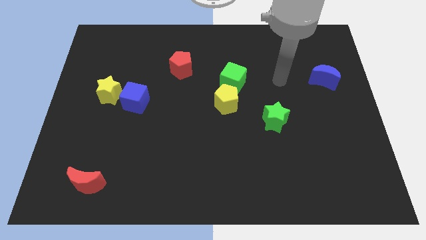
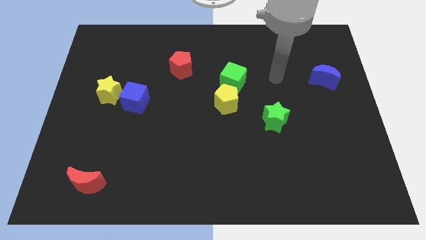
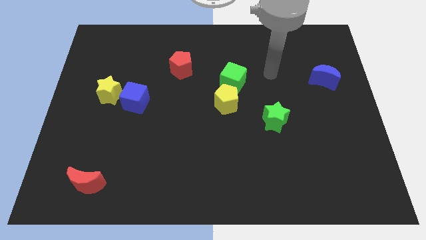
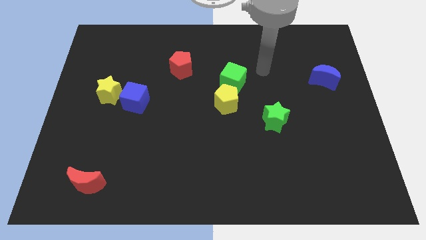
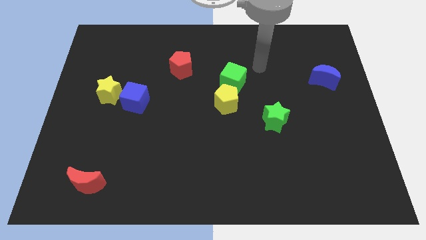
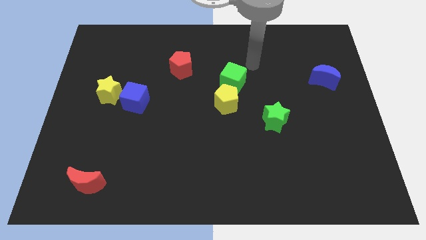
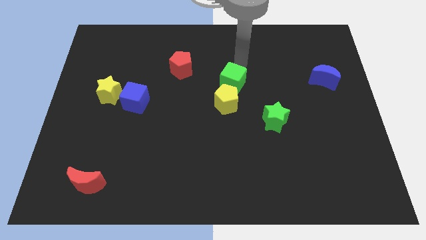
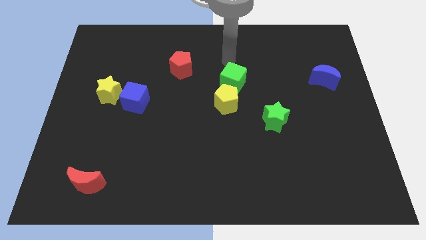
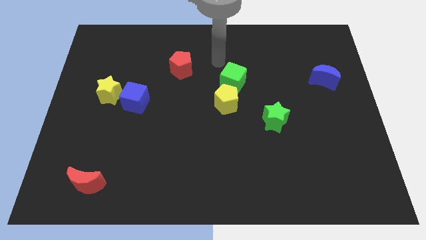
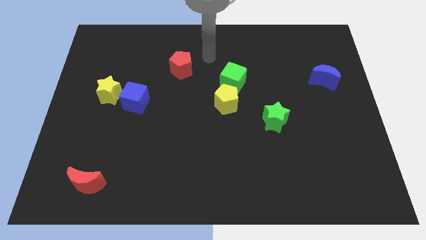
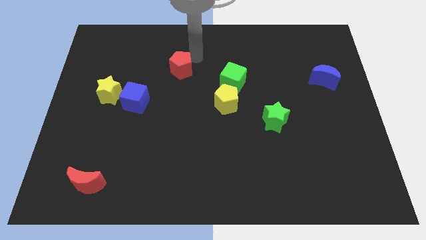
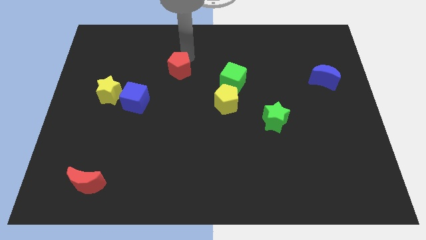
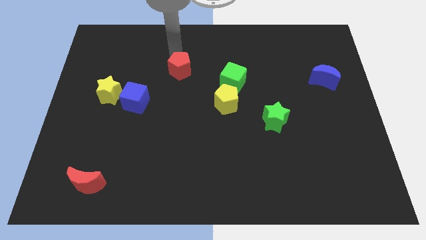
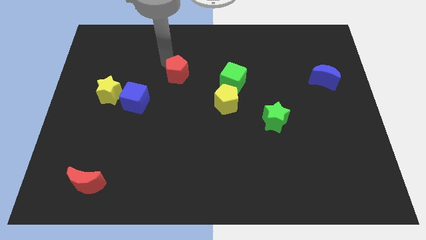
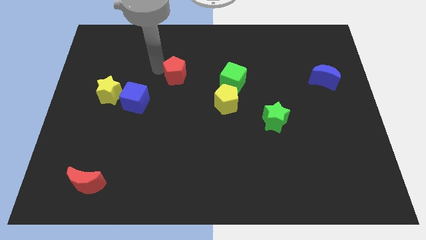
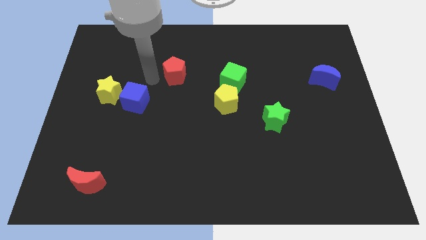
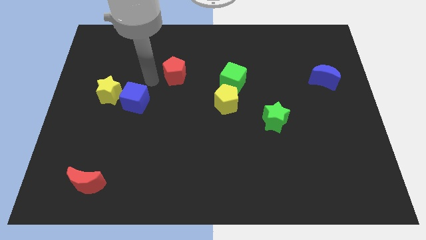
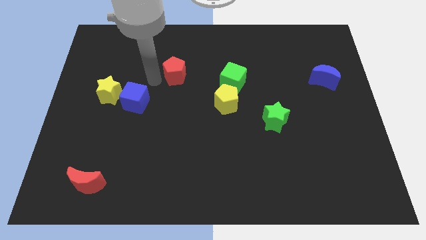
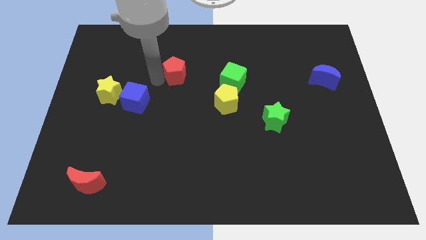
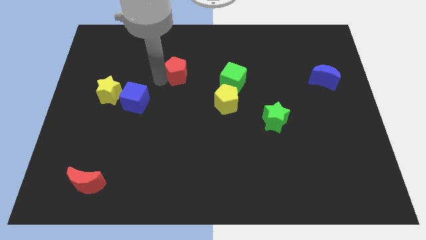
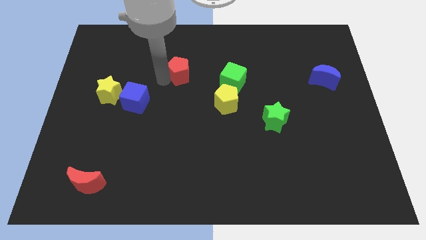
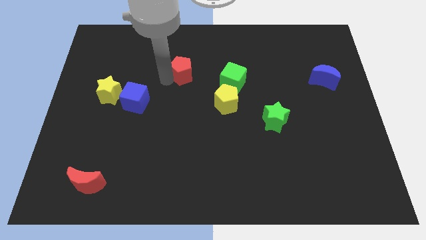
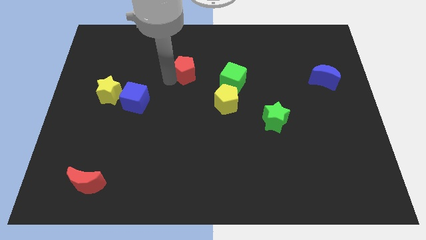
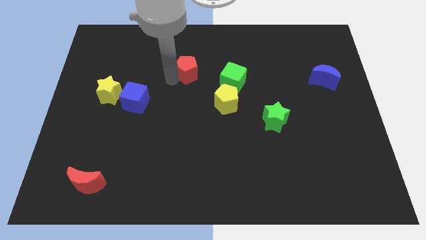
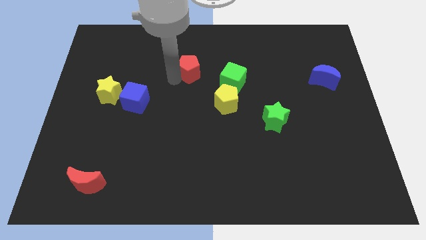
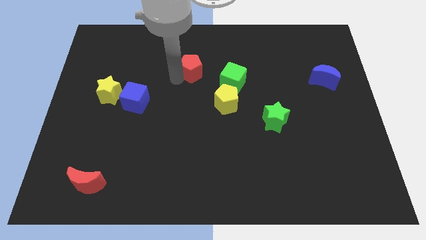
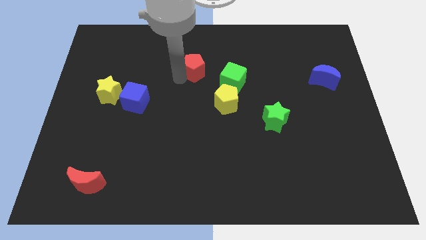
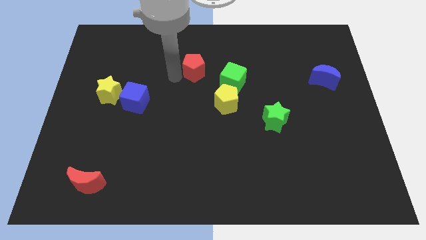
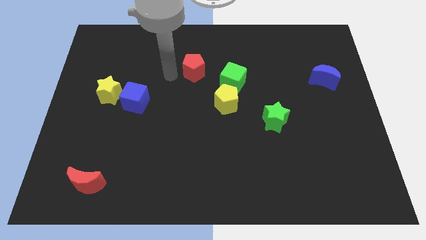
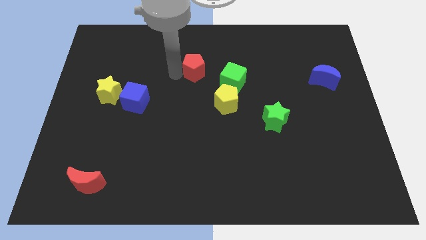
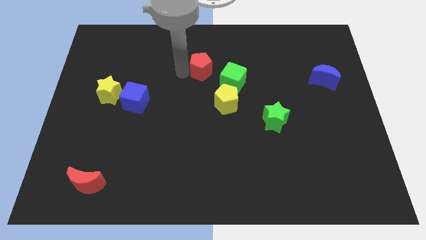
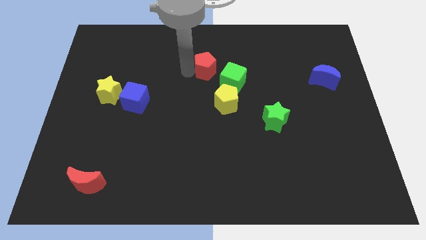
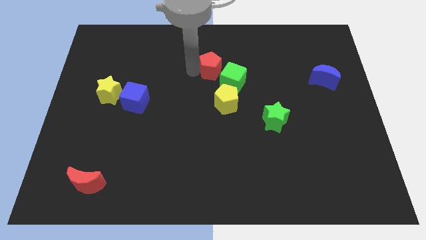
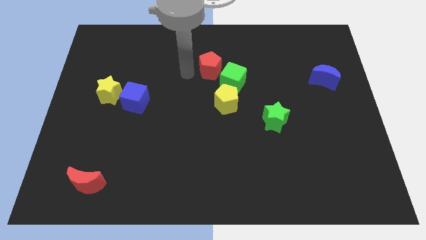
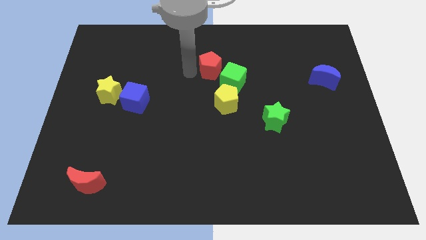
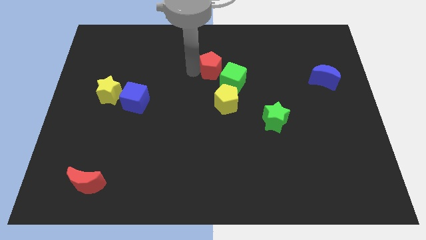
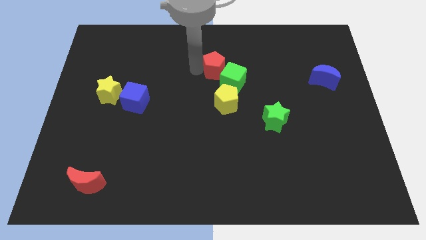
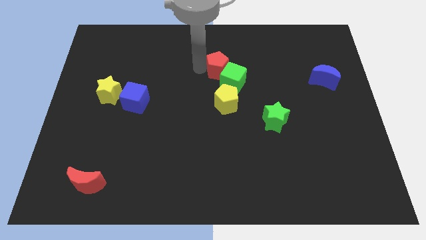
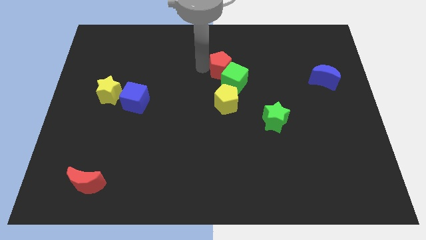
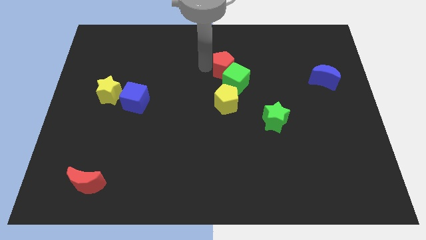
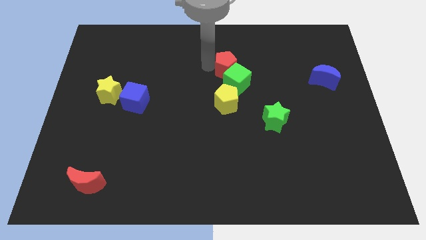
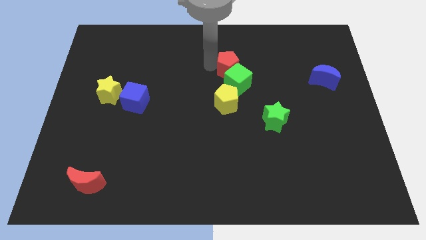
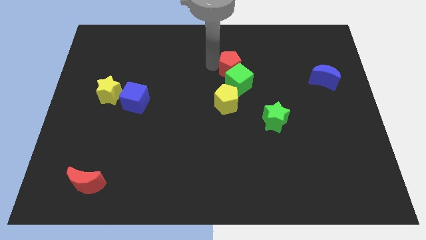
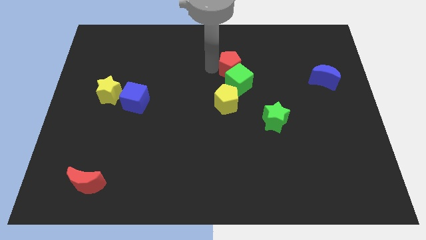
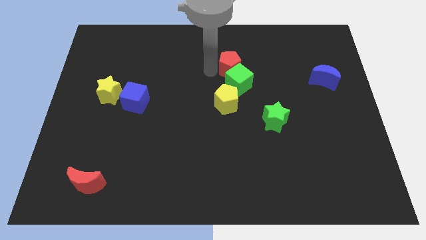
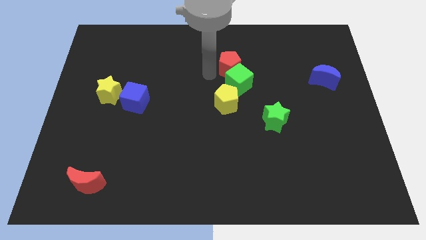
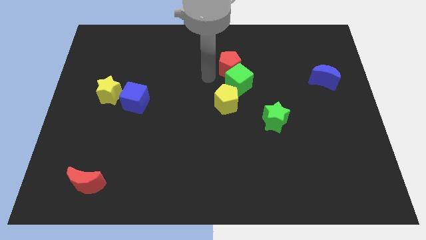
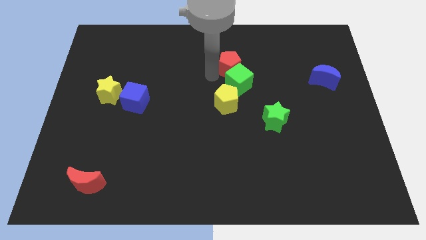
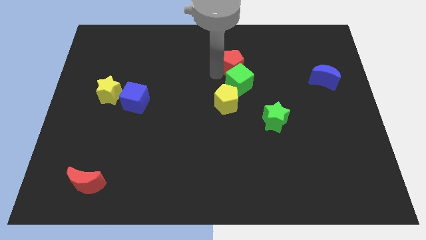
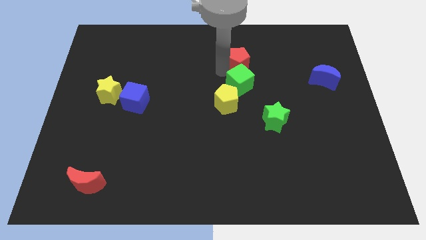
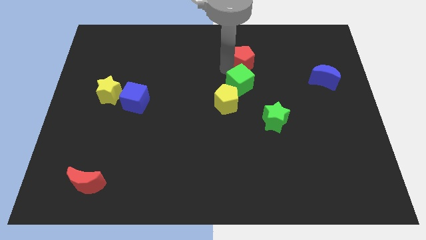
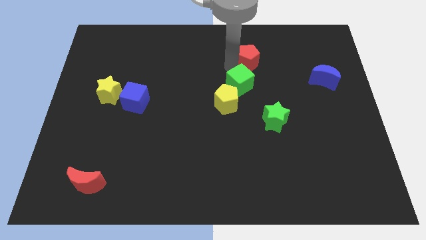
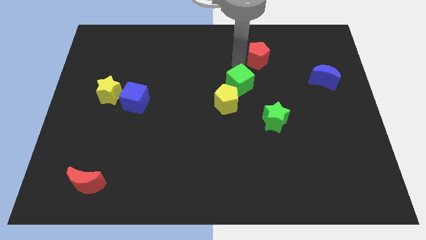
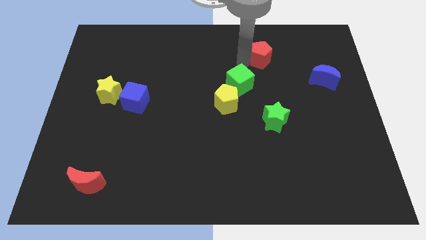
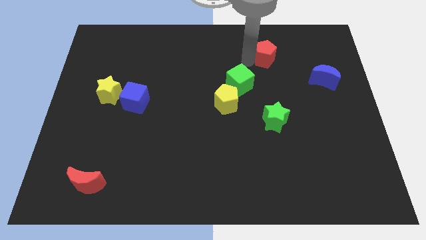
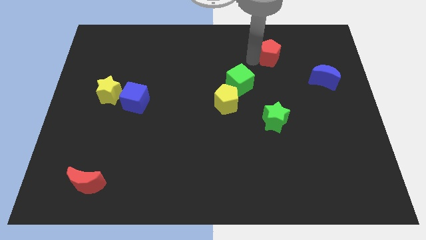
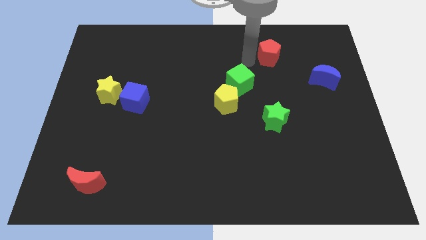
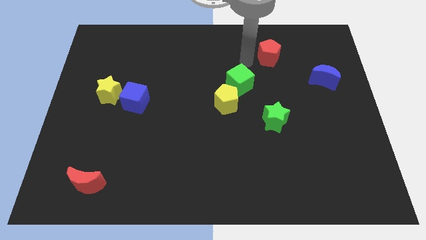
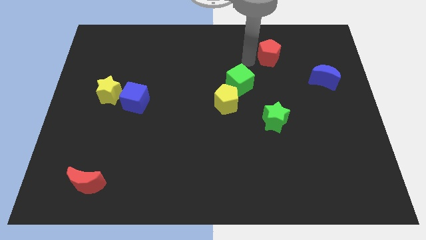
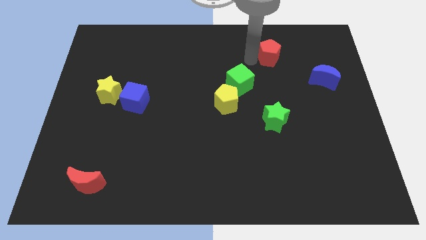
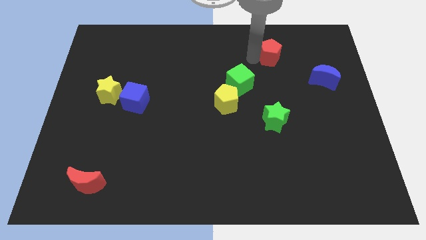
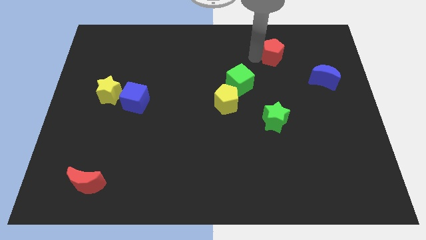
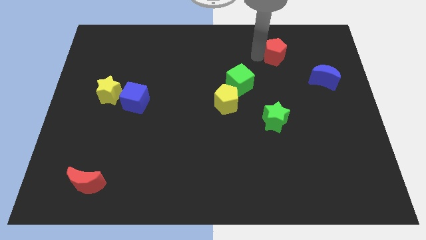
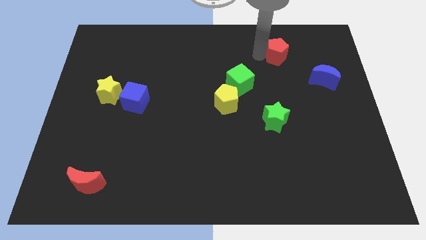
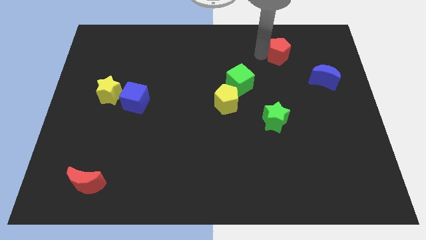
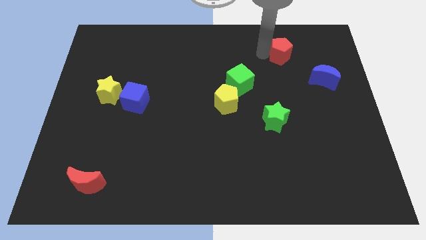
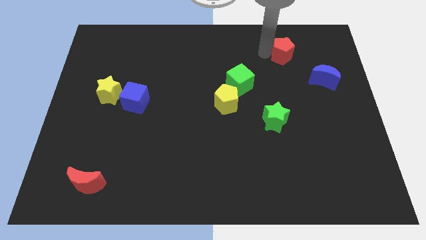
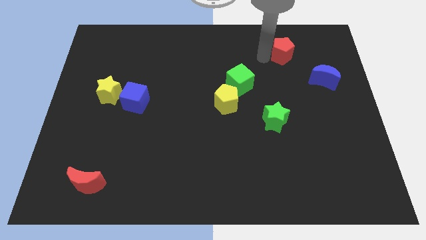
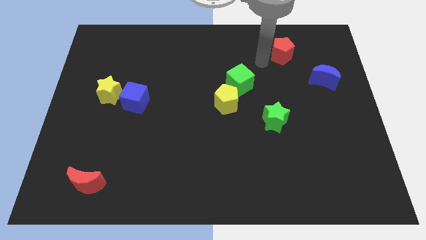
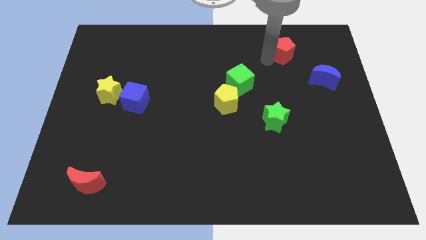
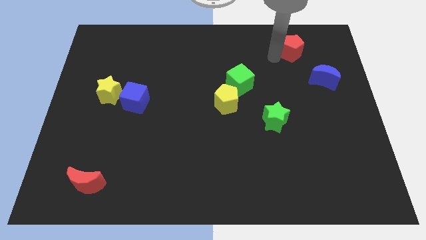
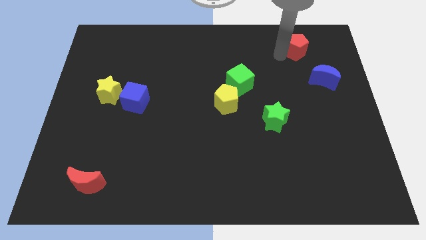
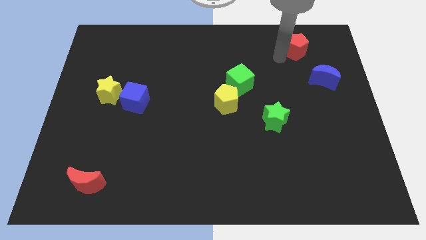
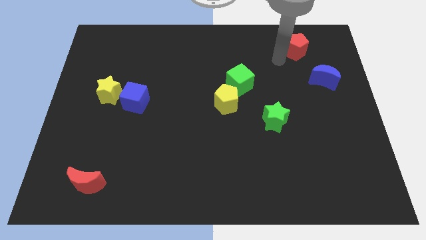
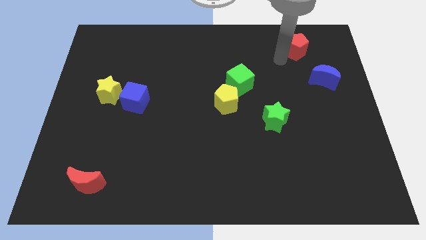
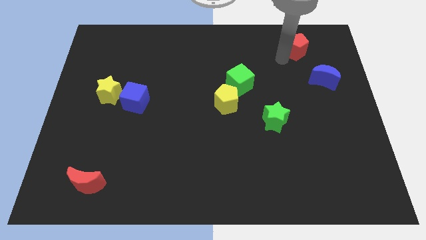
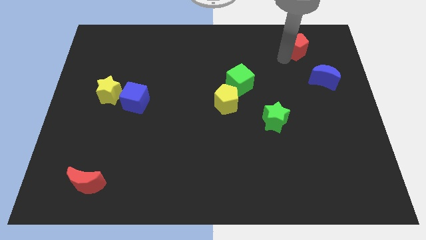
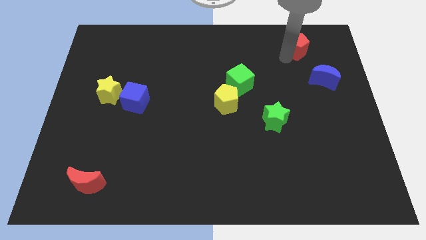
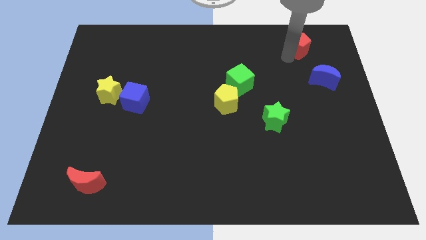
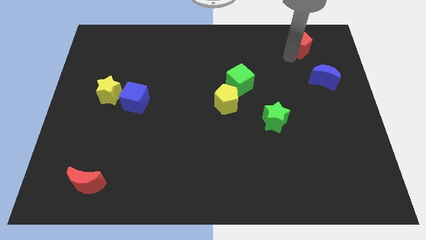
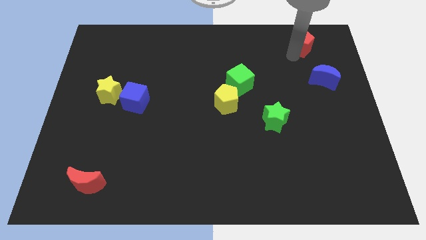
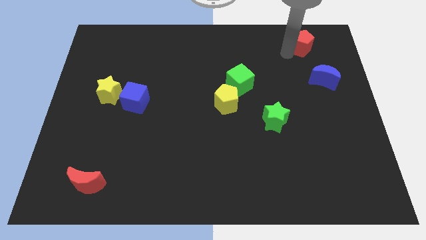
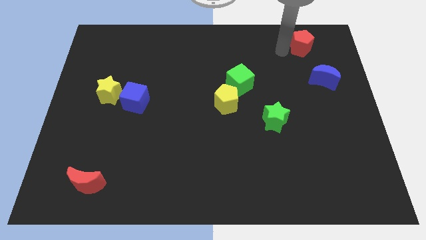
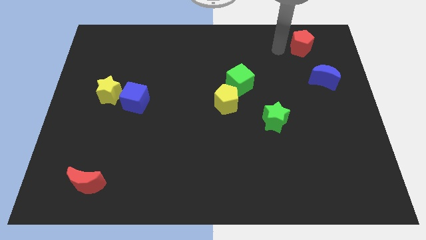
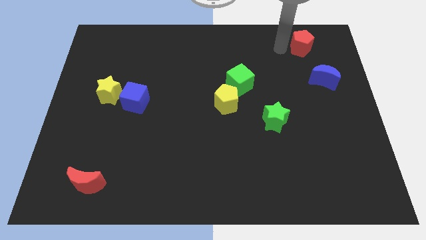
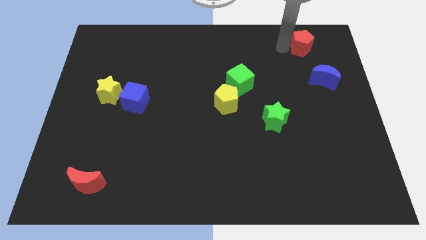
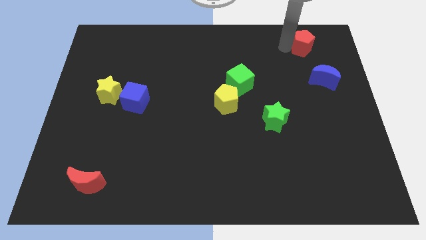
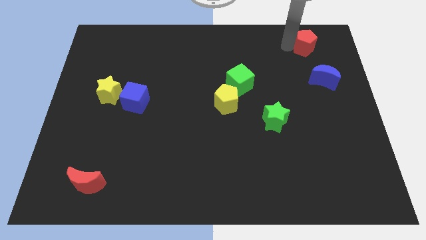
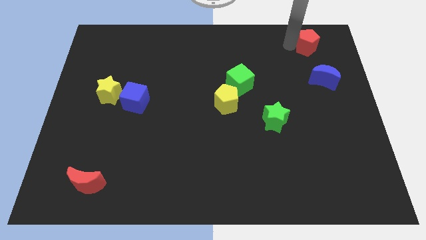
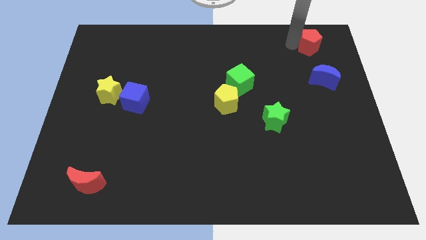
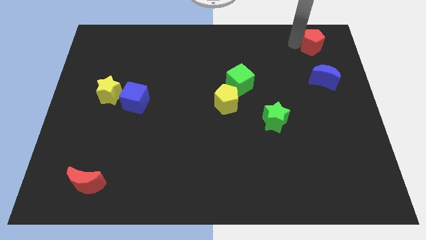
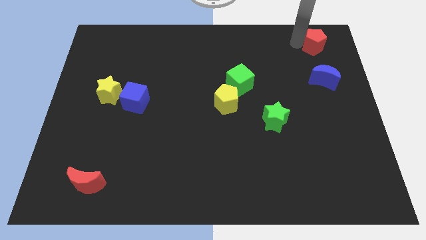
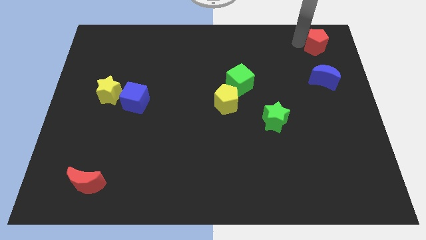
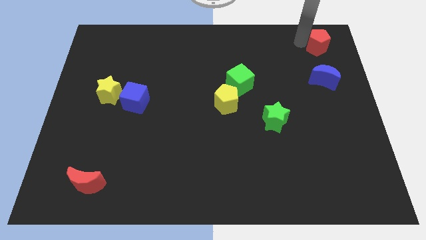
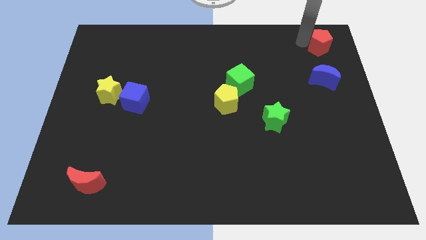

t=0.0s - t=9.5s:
push the red pentagon to the top right
